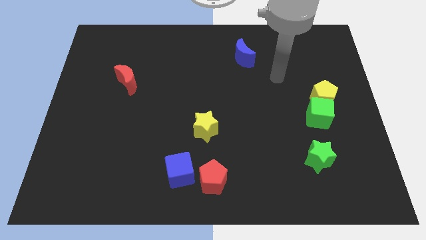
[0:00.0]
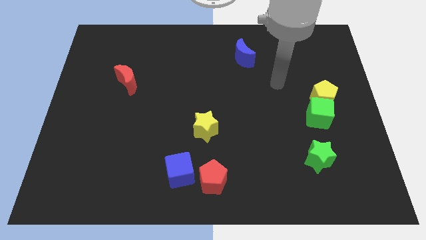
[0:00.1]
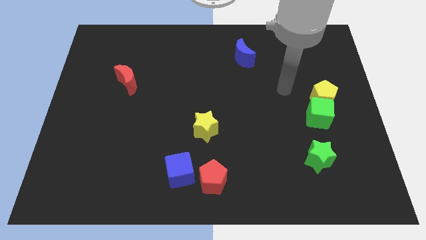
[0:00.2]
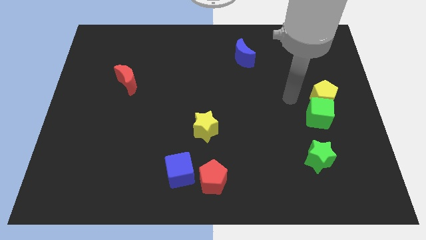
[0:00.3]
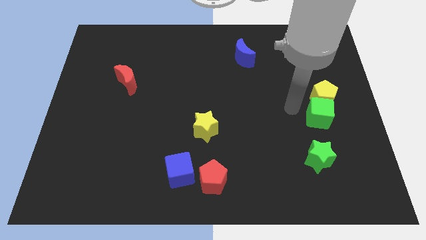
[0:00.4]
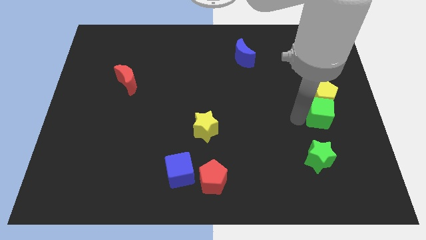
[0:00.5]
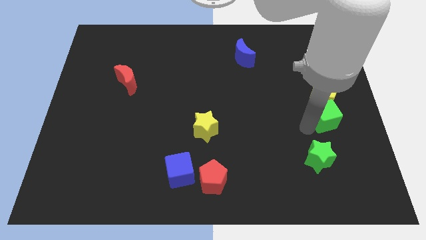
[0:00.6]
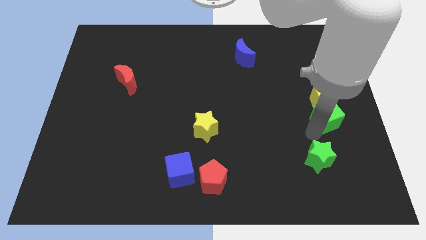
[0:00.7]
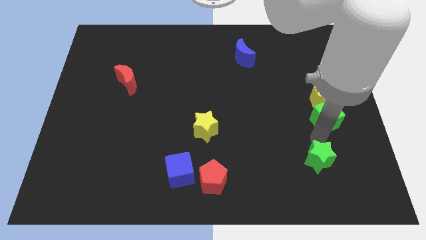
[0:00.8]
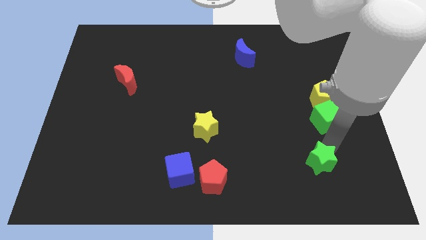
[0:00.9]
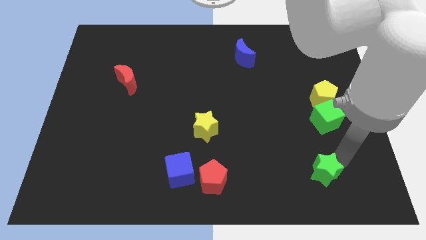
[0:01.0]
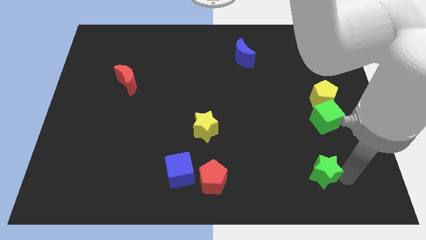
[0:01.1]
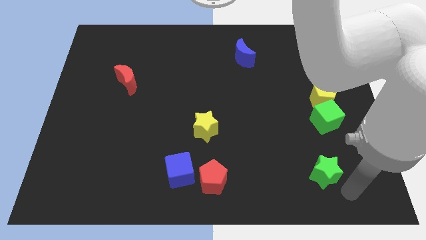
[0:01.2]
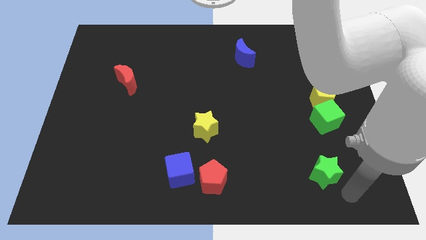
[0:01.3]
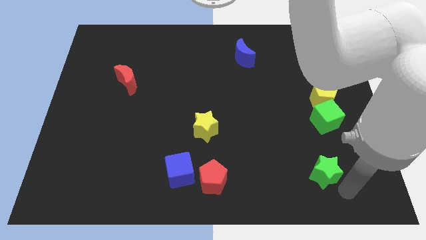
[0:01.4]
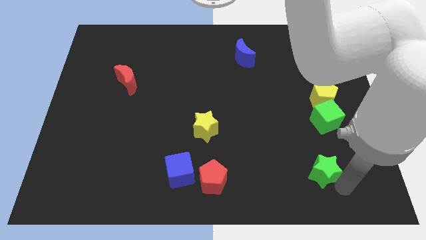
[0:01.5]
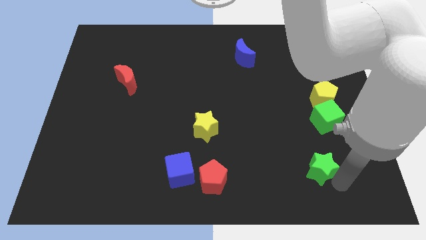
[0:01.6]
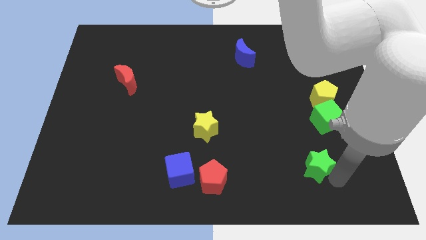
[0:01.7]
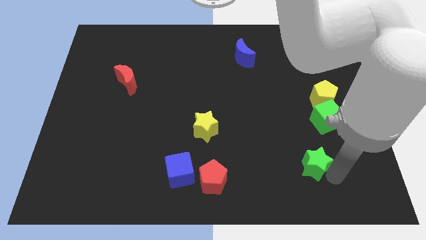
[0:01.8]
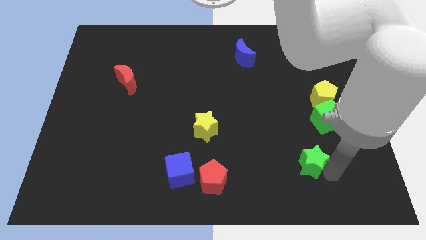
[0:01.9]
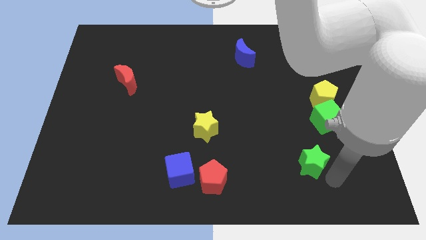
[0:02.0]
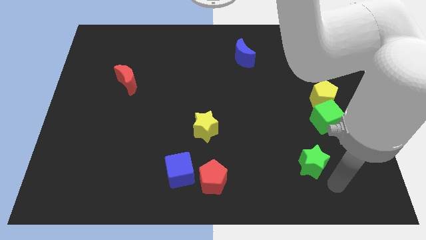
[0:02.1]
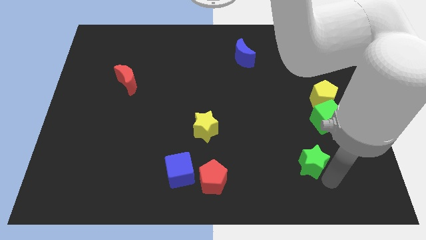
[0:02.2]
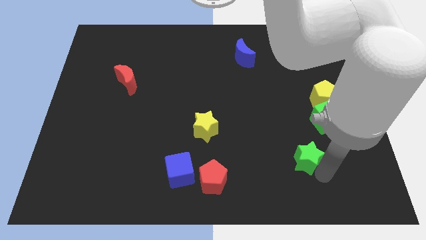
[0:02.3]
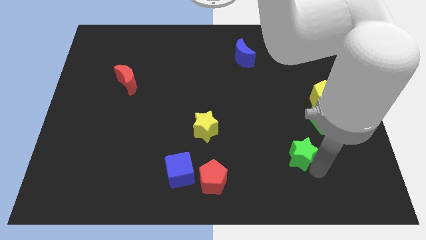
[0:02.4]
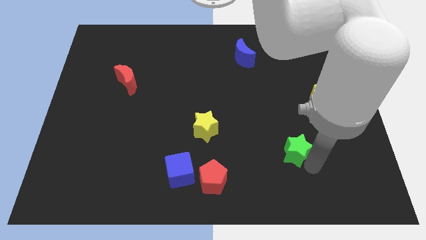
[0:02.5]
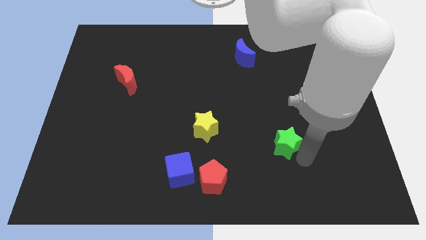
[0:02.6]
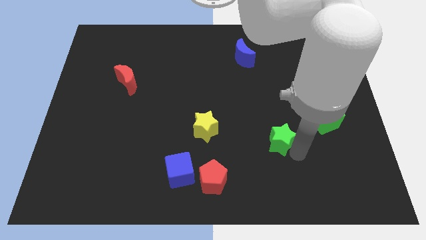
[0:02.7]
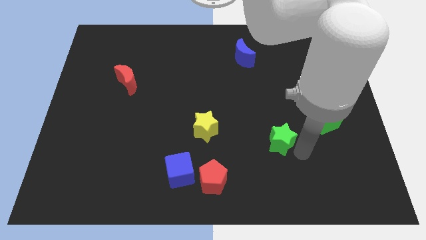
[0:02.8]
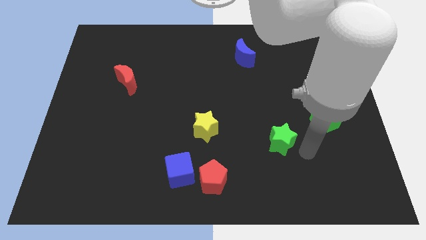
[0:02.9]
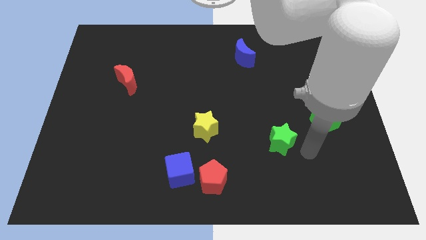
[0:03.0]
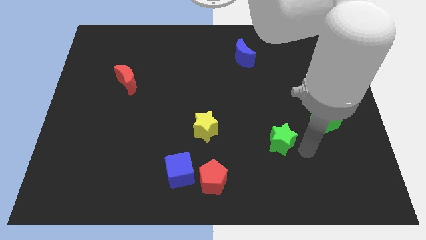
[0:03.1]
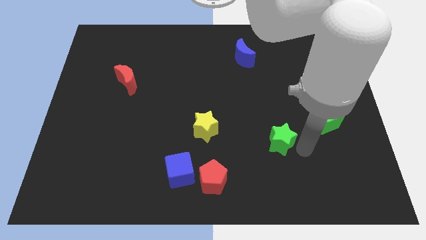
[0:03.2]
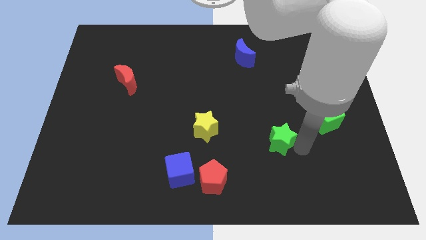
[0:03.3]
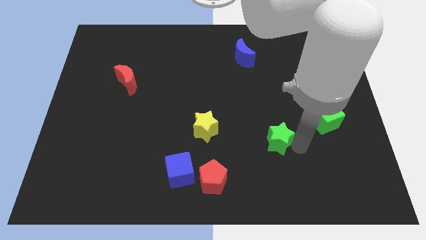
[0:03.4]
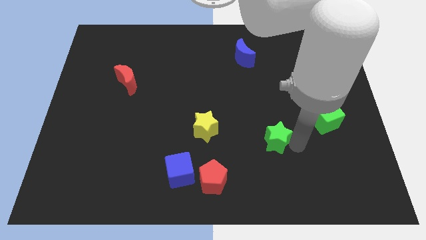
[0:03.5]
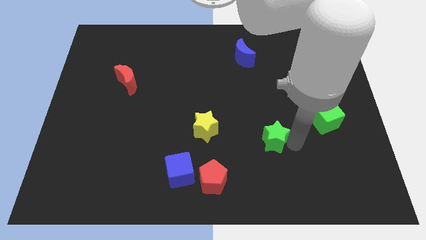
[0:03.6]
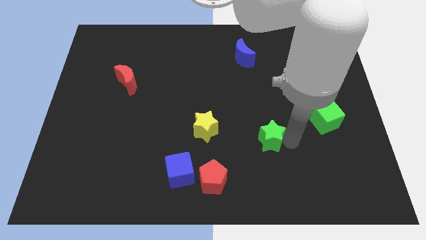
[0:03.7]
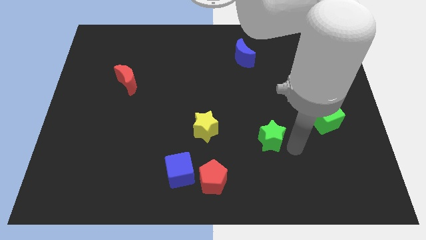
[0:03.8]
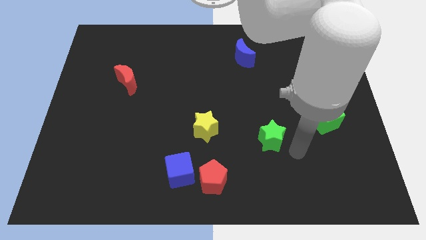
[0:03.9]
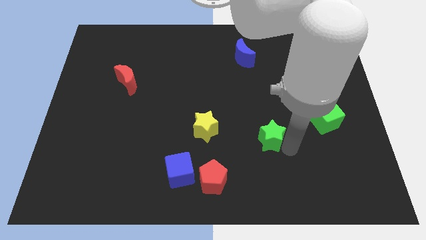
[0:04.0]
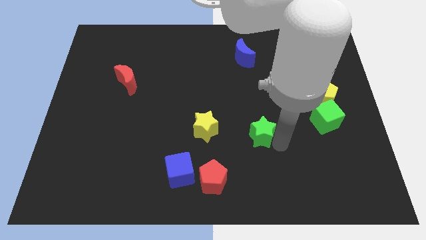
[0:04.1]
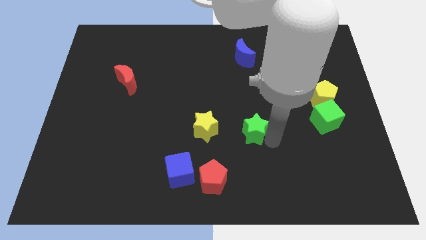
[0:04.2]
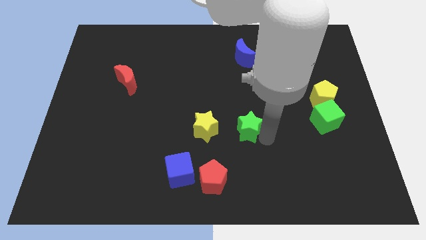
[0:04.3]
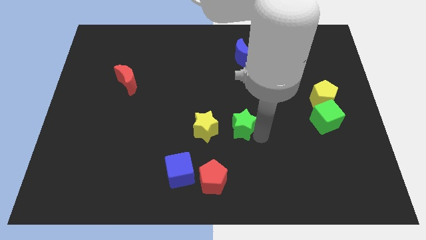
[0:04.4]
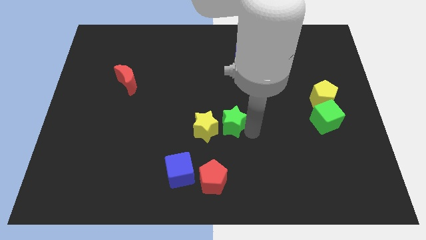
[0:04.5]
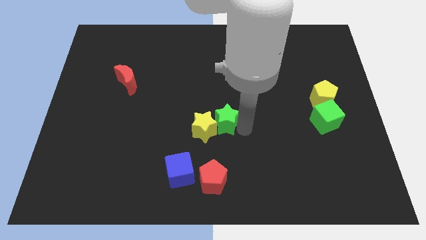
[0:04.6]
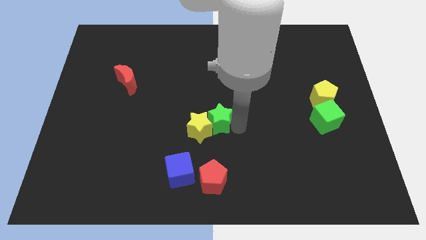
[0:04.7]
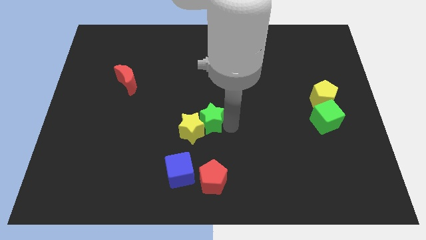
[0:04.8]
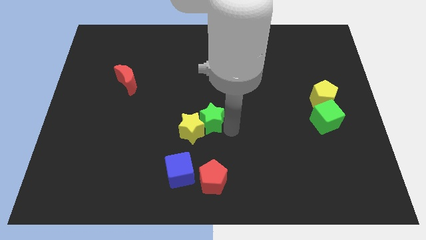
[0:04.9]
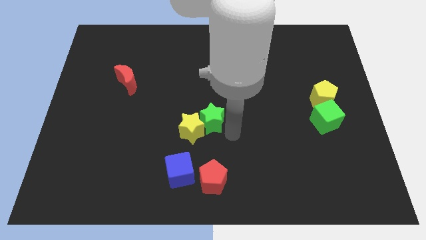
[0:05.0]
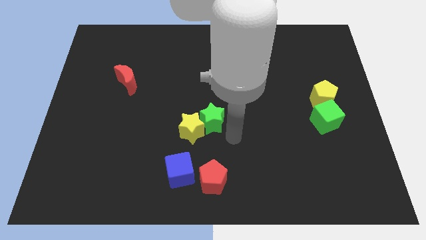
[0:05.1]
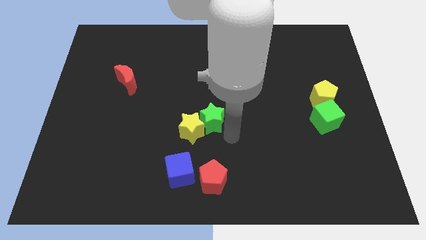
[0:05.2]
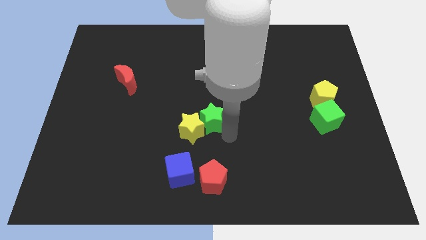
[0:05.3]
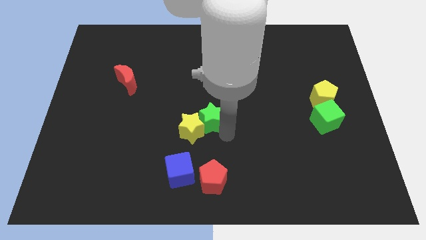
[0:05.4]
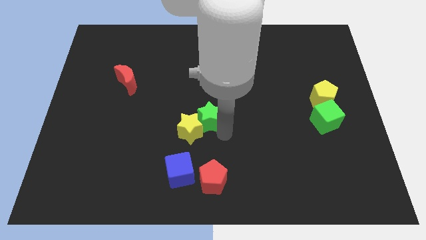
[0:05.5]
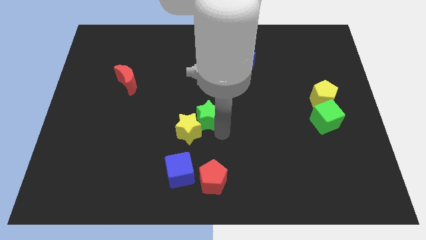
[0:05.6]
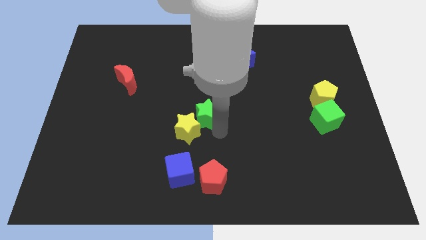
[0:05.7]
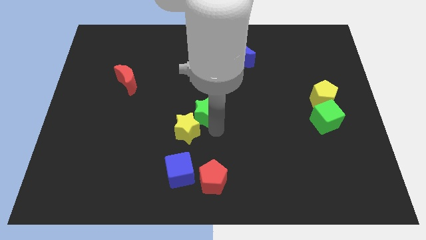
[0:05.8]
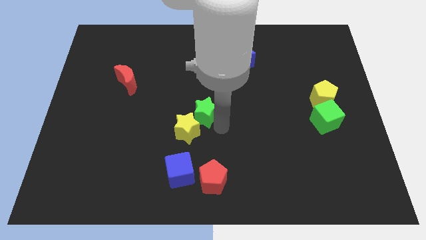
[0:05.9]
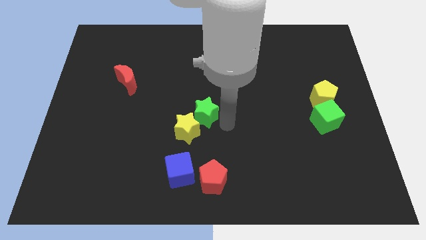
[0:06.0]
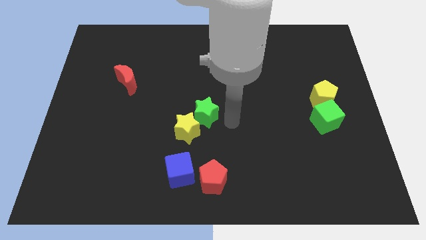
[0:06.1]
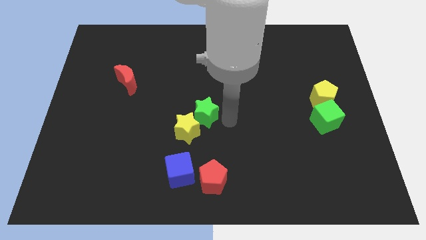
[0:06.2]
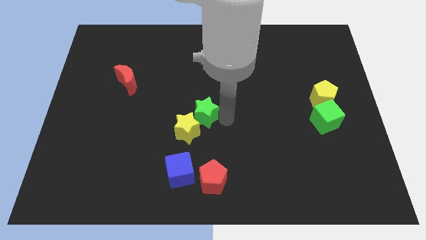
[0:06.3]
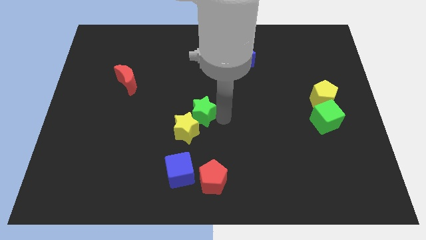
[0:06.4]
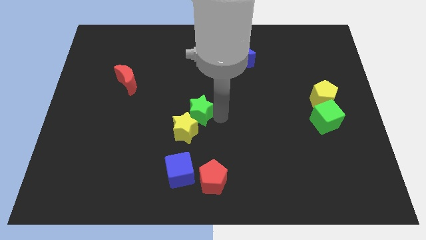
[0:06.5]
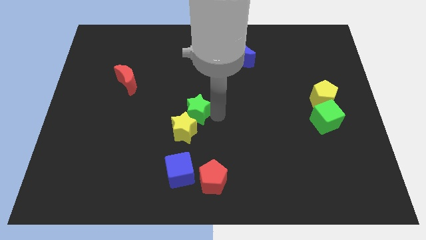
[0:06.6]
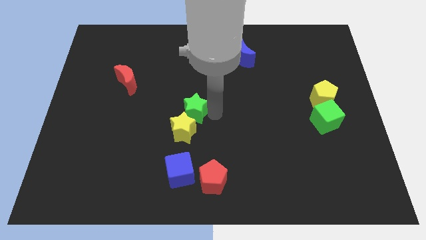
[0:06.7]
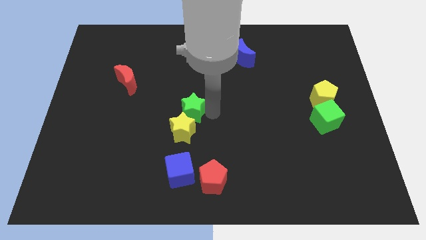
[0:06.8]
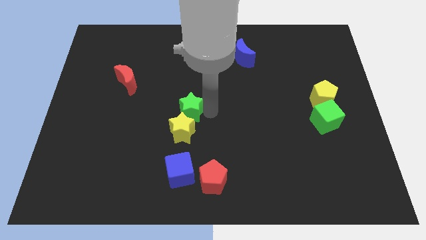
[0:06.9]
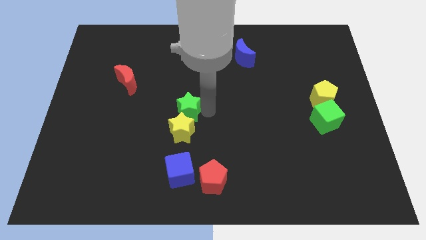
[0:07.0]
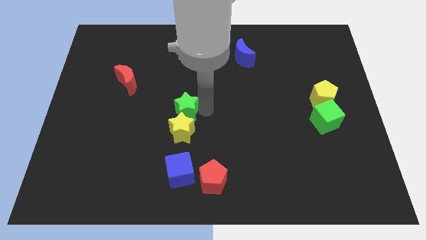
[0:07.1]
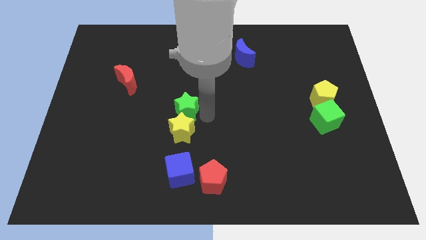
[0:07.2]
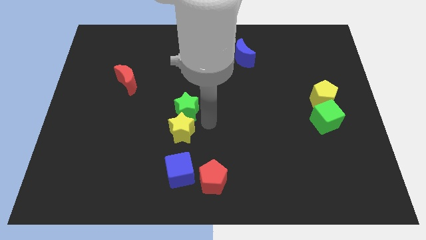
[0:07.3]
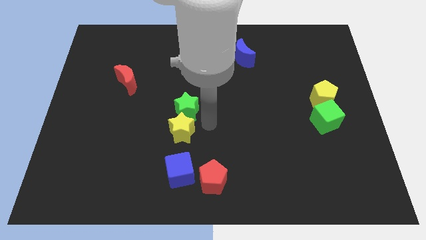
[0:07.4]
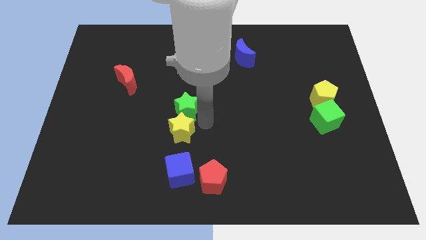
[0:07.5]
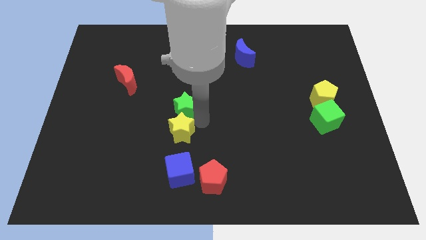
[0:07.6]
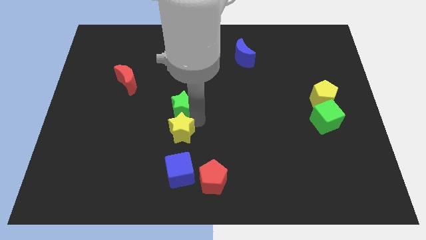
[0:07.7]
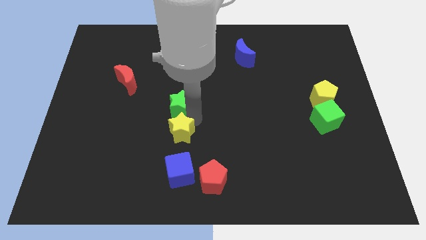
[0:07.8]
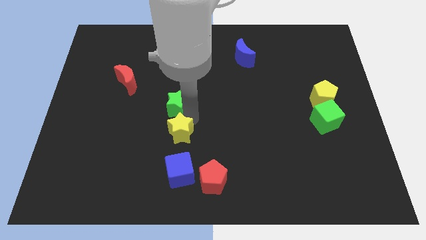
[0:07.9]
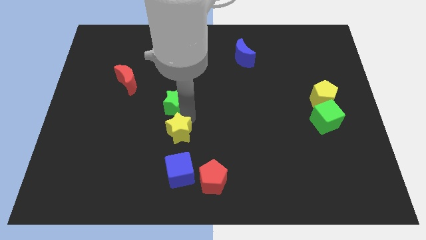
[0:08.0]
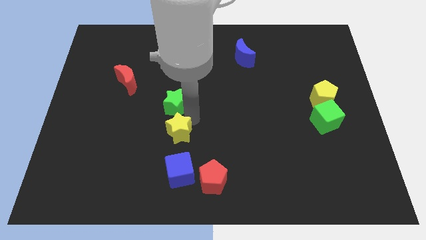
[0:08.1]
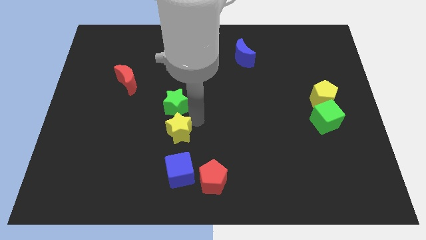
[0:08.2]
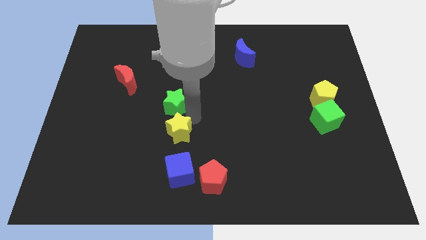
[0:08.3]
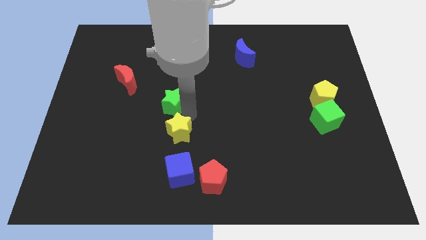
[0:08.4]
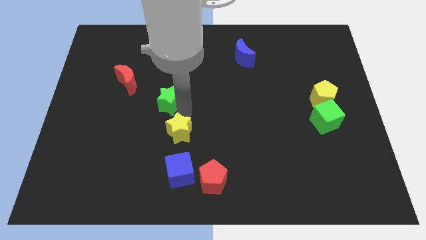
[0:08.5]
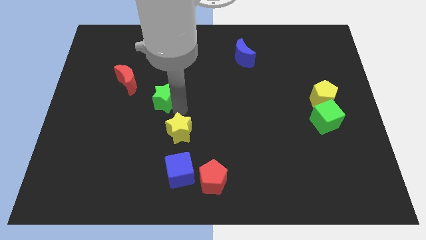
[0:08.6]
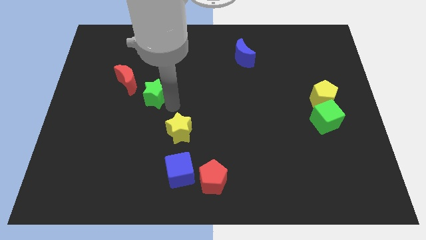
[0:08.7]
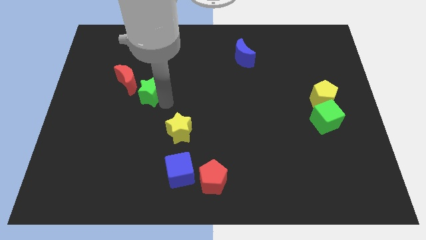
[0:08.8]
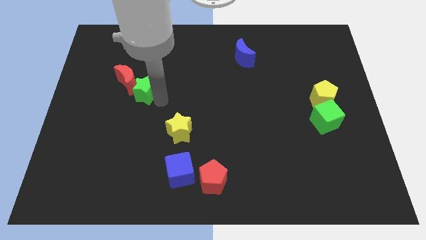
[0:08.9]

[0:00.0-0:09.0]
push the green star to the red moon
